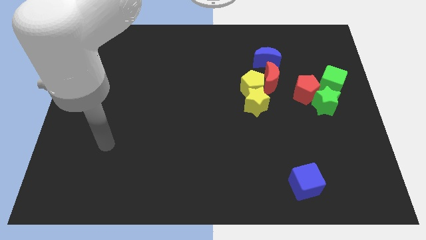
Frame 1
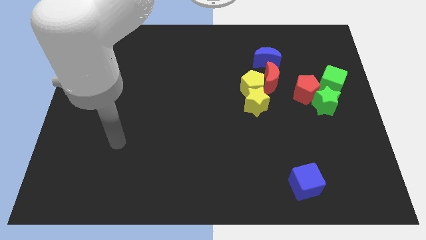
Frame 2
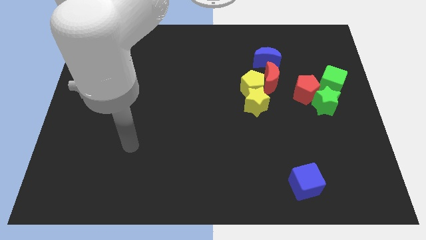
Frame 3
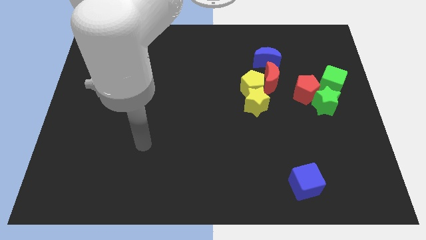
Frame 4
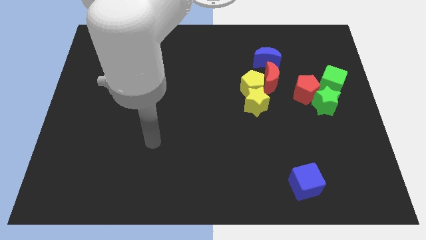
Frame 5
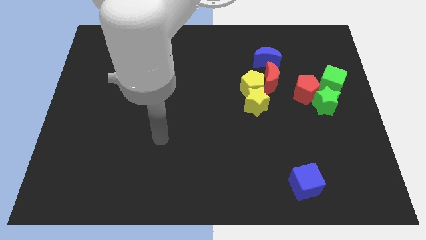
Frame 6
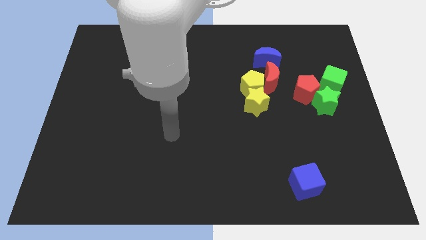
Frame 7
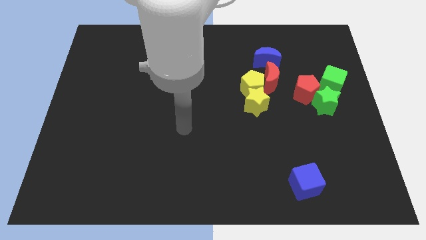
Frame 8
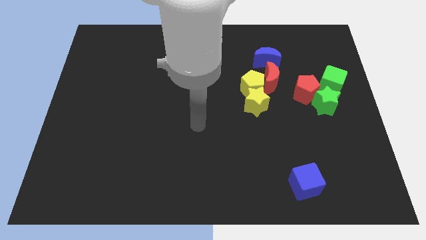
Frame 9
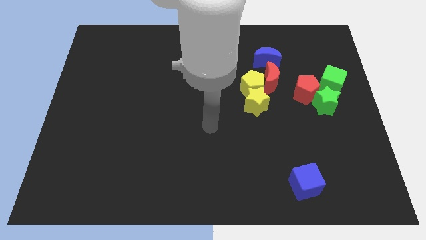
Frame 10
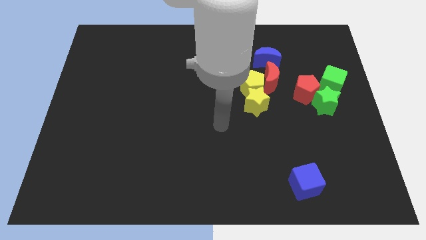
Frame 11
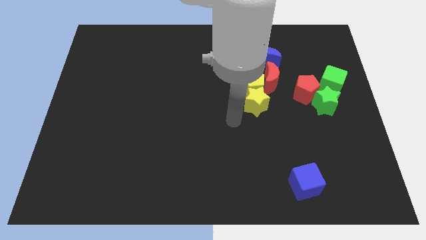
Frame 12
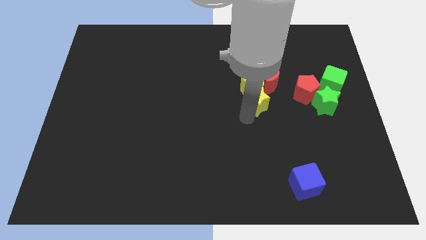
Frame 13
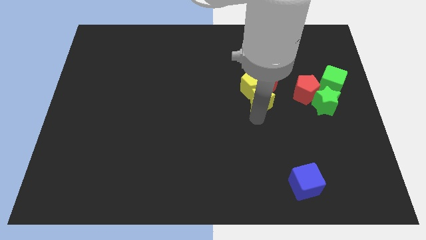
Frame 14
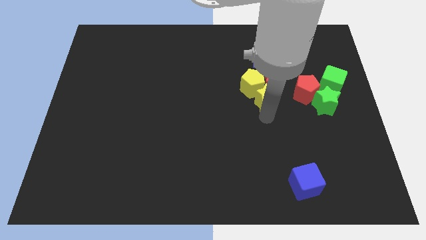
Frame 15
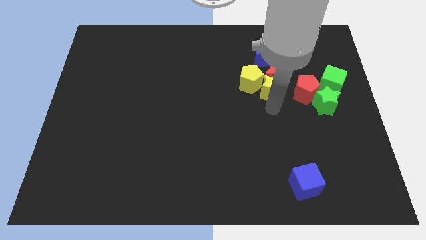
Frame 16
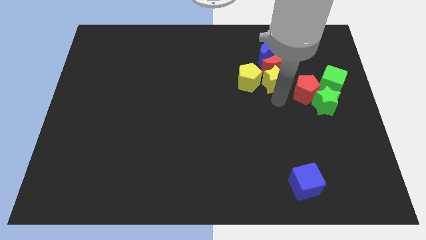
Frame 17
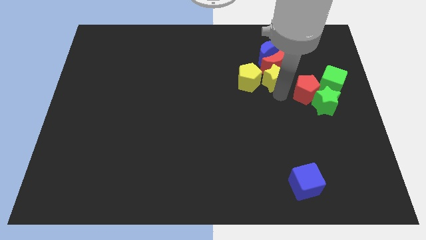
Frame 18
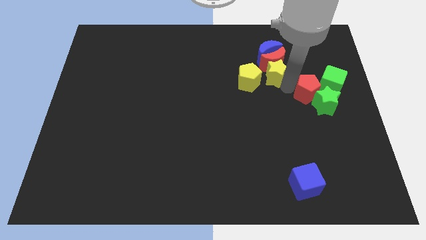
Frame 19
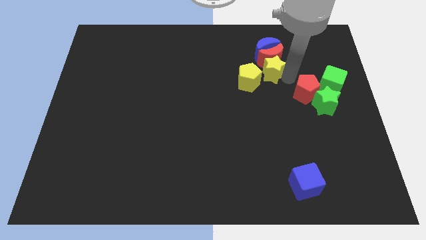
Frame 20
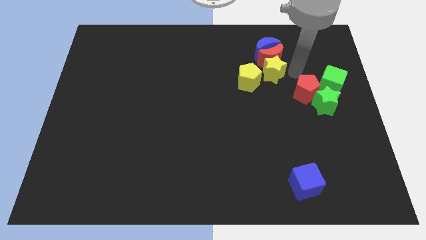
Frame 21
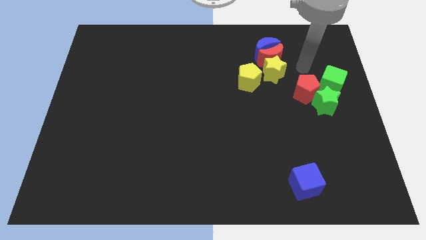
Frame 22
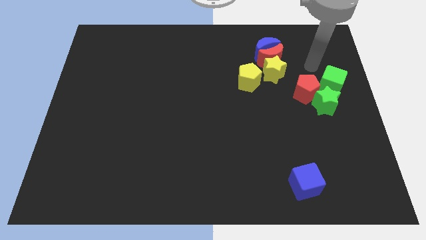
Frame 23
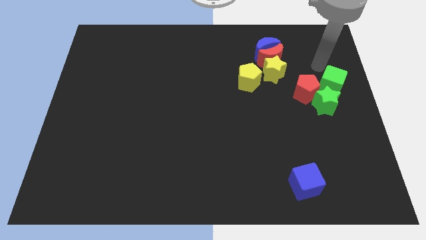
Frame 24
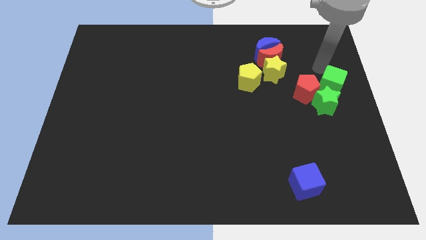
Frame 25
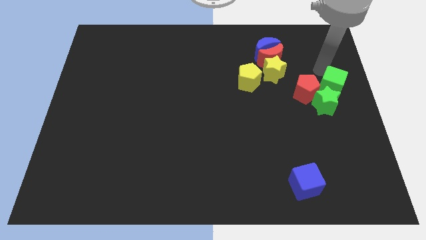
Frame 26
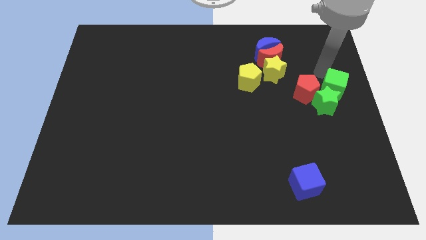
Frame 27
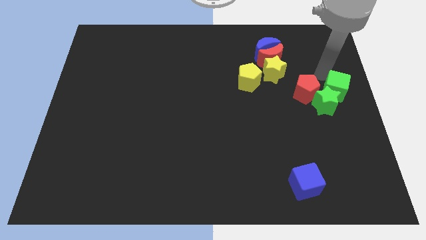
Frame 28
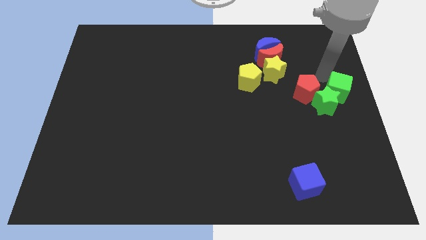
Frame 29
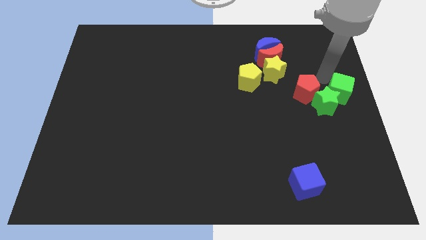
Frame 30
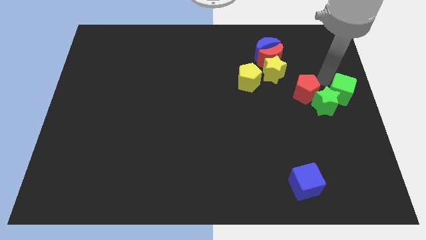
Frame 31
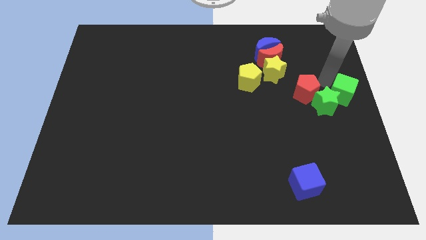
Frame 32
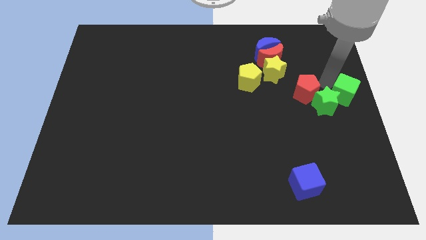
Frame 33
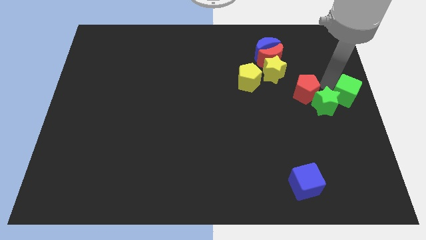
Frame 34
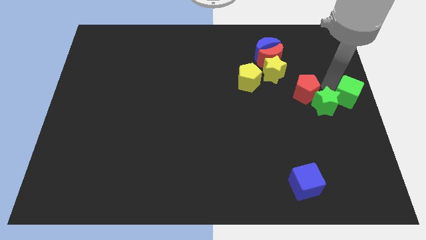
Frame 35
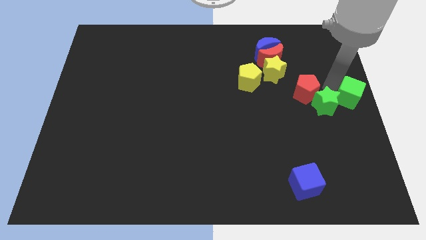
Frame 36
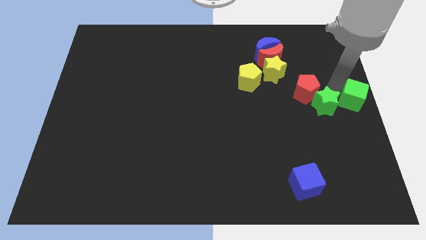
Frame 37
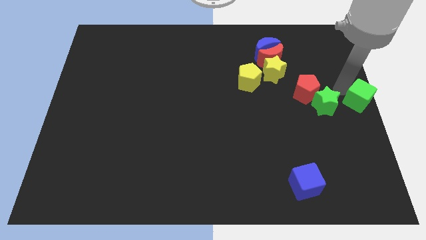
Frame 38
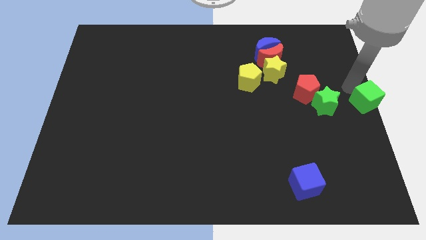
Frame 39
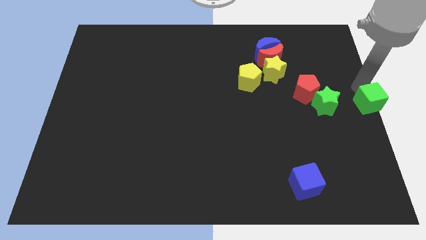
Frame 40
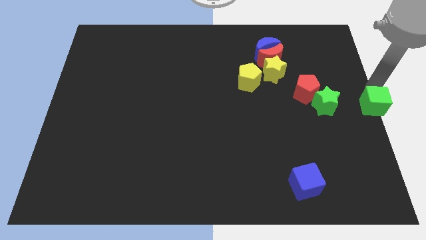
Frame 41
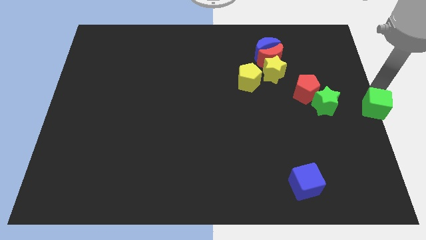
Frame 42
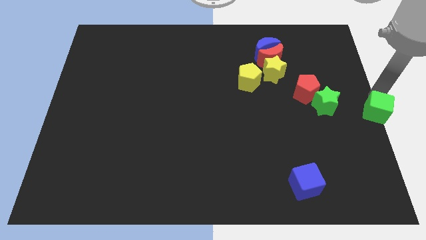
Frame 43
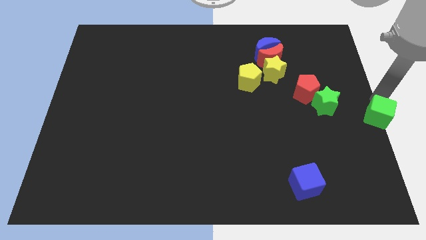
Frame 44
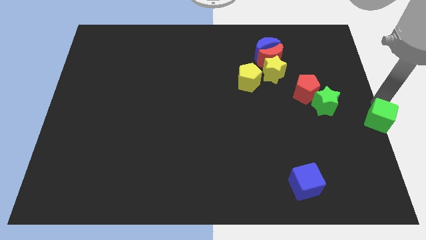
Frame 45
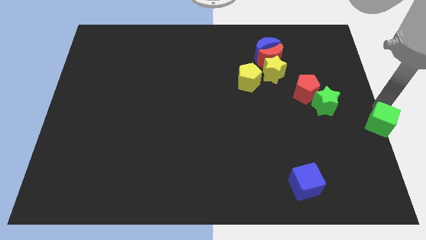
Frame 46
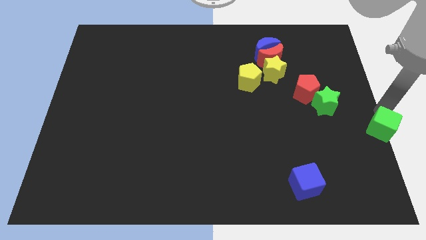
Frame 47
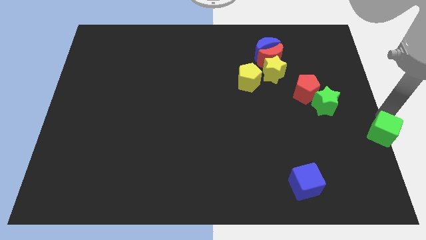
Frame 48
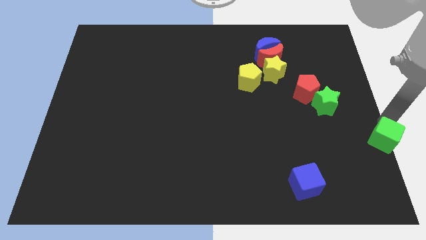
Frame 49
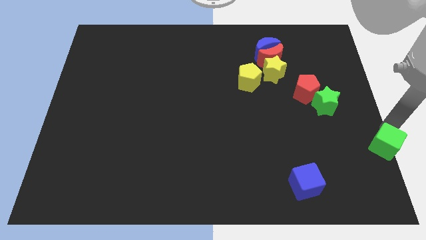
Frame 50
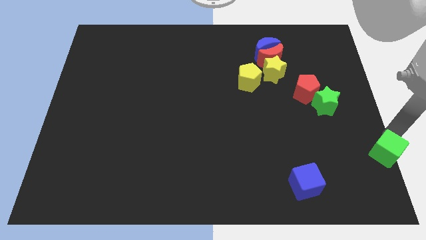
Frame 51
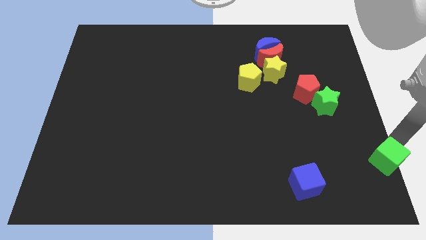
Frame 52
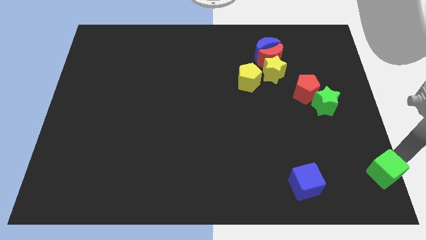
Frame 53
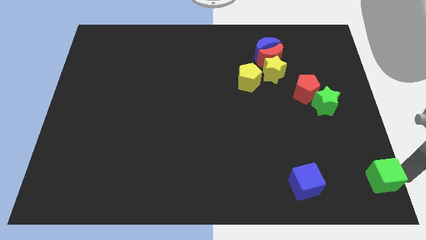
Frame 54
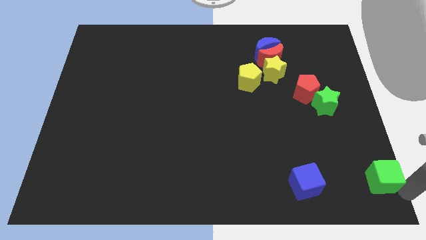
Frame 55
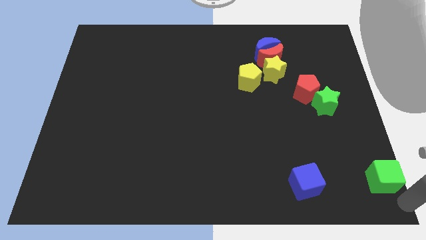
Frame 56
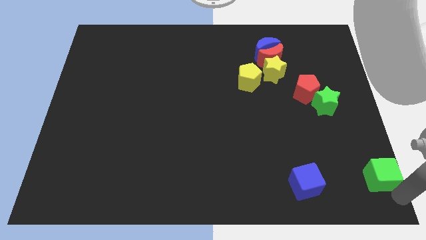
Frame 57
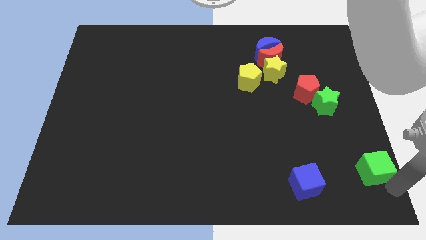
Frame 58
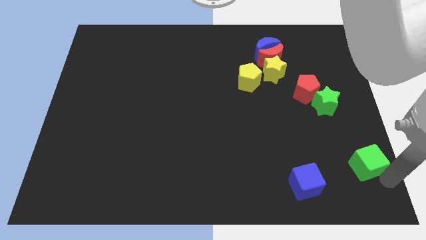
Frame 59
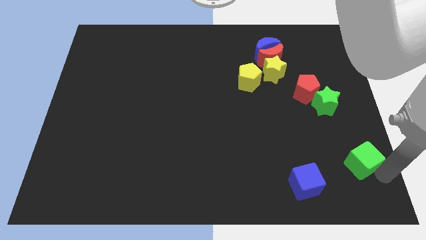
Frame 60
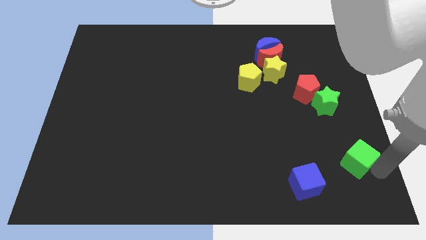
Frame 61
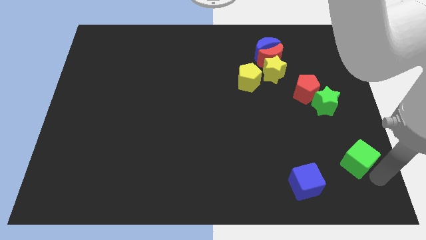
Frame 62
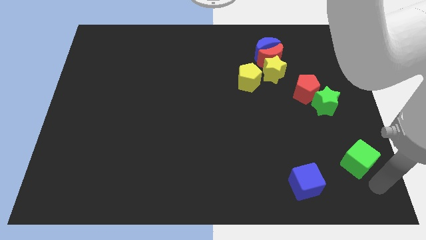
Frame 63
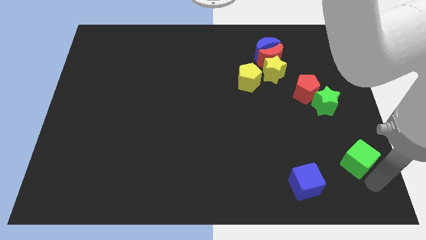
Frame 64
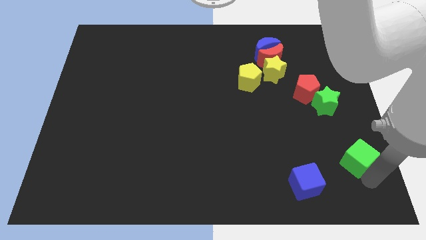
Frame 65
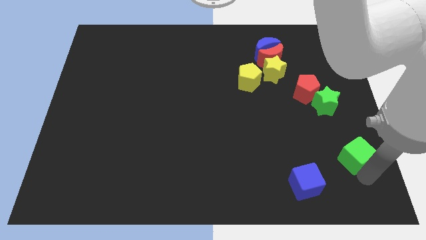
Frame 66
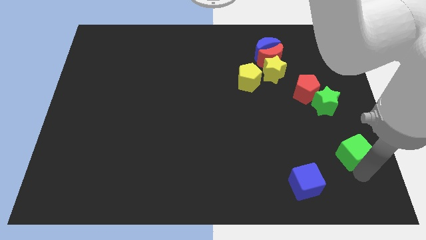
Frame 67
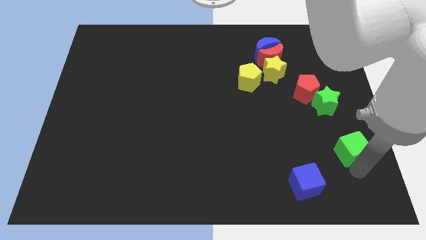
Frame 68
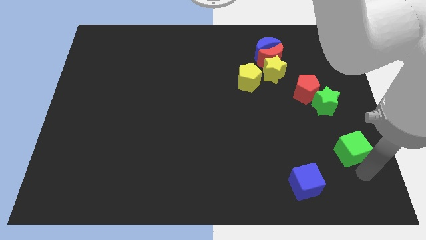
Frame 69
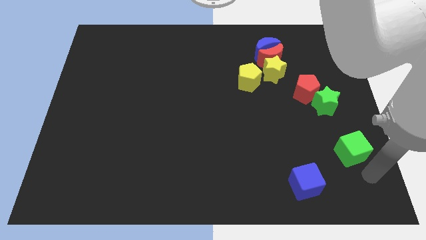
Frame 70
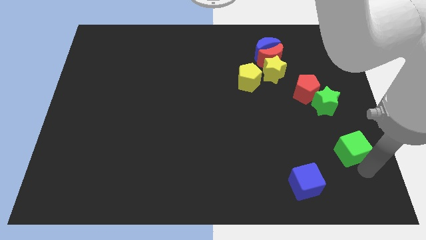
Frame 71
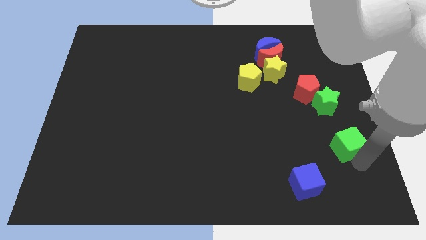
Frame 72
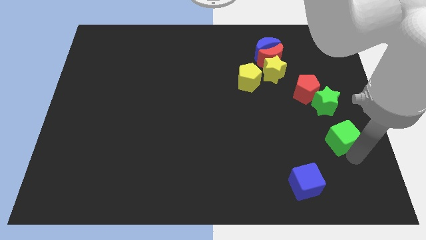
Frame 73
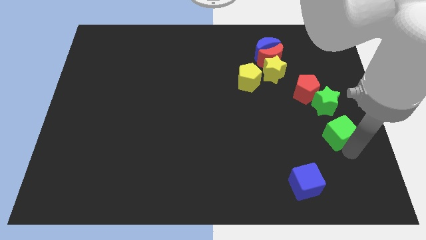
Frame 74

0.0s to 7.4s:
slide the green cube down and then left a little

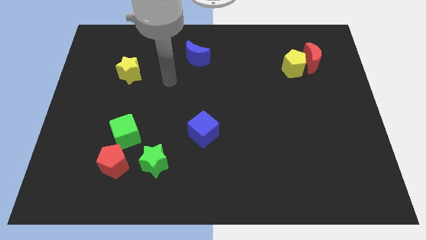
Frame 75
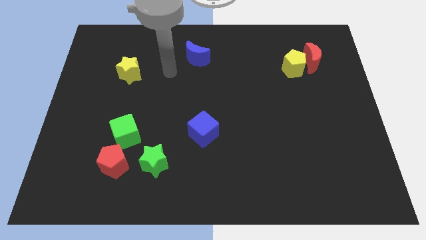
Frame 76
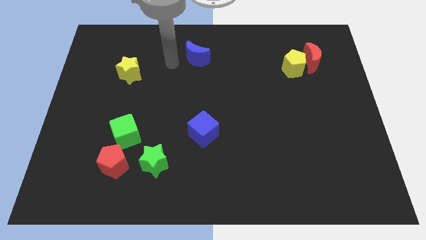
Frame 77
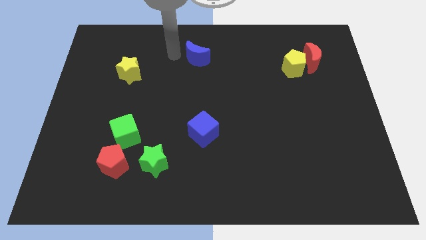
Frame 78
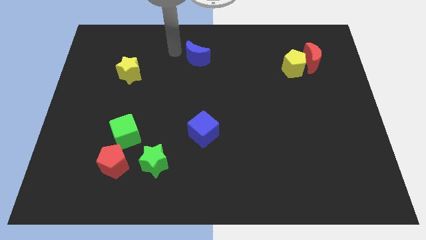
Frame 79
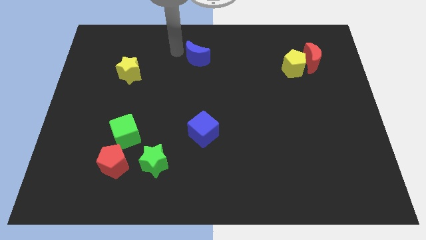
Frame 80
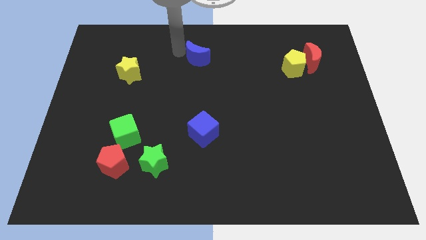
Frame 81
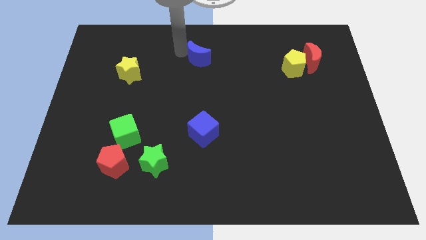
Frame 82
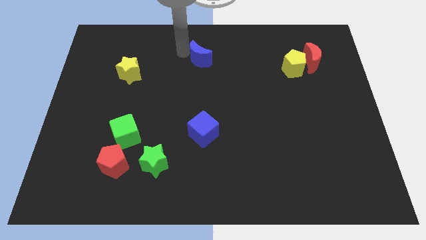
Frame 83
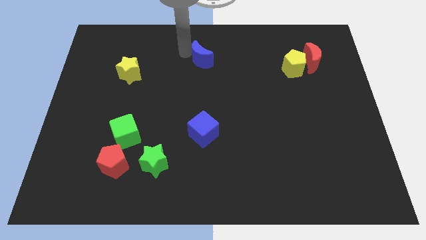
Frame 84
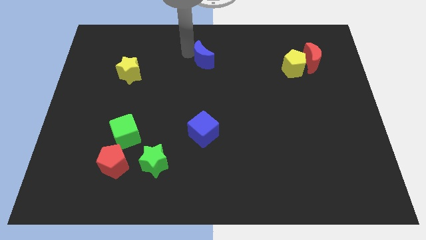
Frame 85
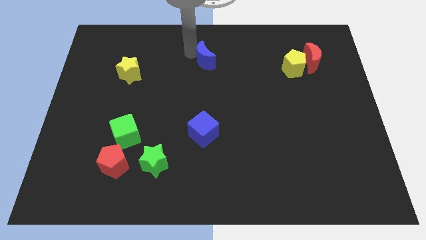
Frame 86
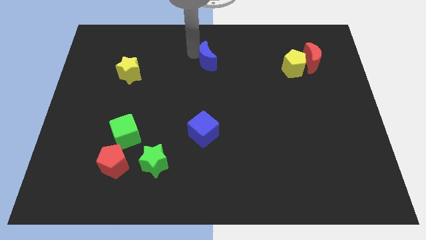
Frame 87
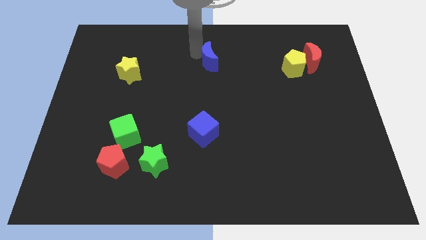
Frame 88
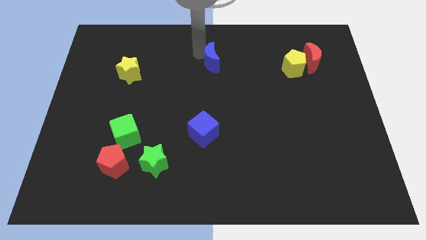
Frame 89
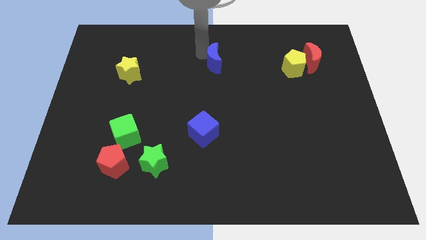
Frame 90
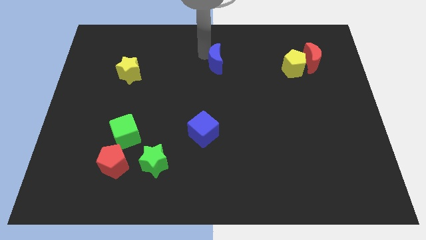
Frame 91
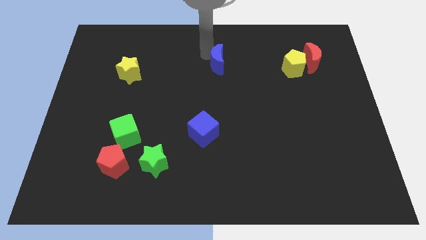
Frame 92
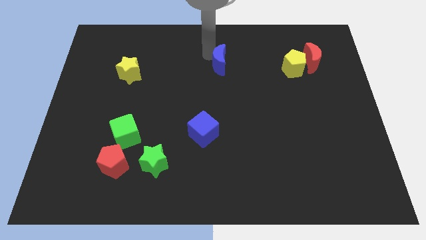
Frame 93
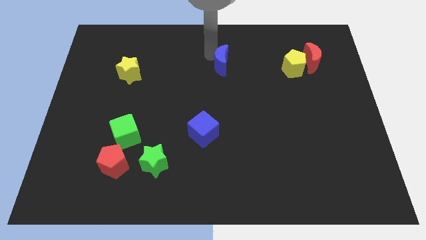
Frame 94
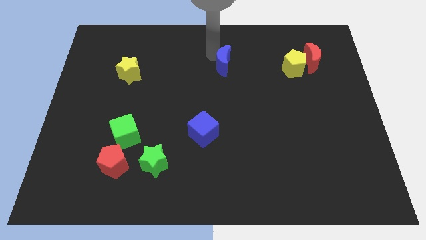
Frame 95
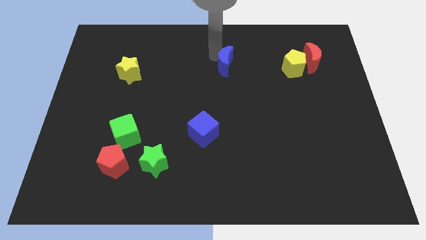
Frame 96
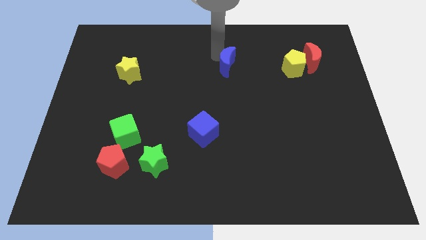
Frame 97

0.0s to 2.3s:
slightly move the blue moon downwards and right diagonally
